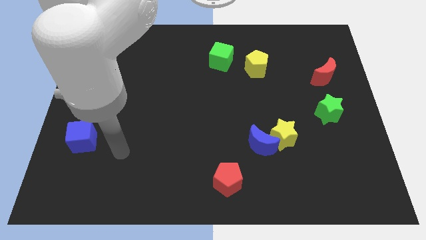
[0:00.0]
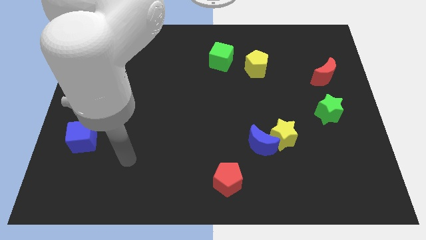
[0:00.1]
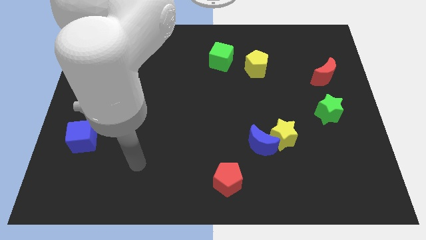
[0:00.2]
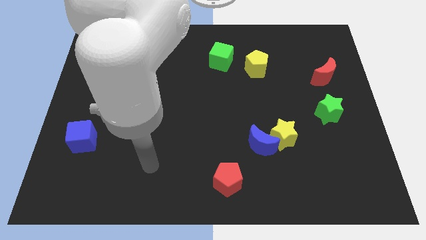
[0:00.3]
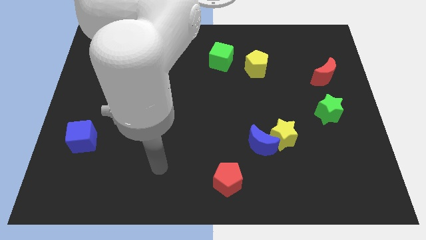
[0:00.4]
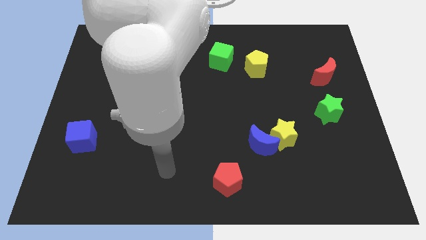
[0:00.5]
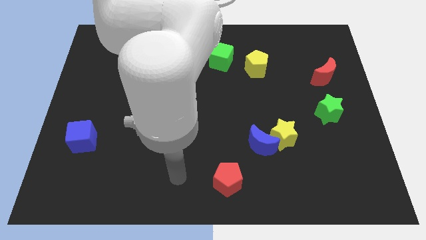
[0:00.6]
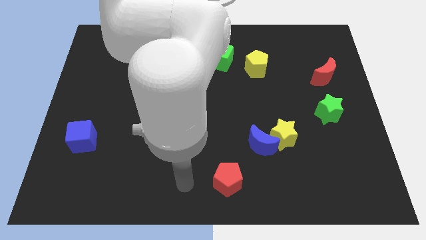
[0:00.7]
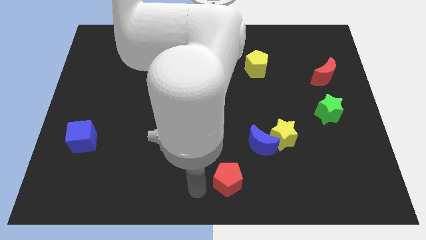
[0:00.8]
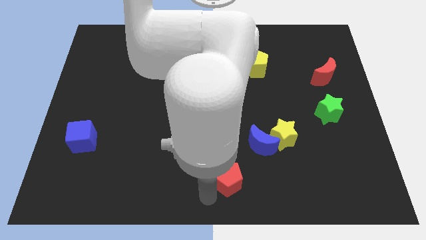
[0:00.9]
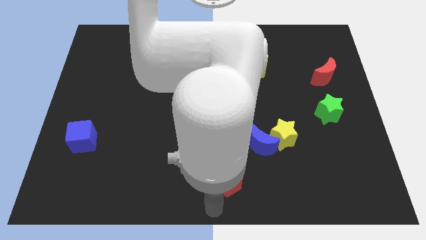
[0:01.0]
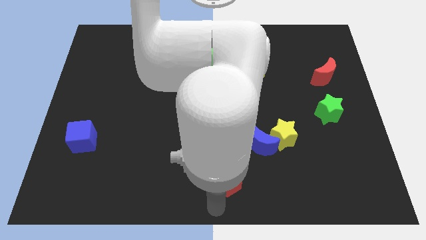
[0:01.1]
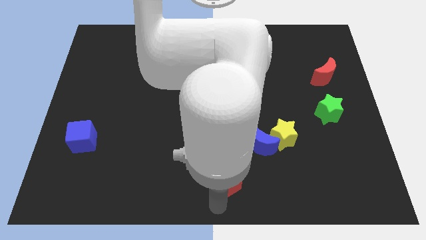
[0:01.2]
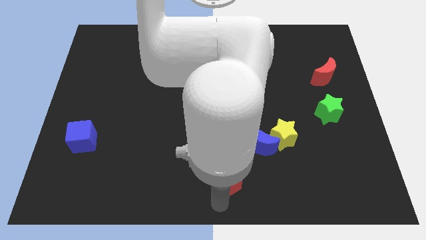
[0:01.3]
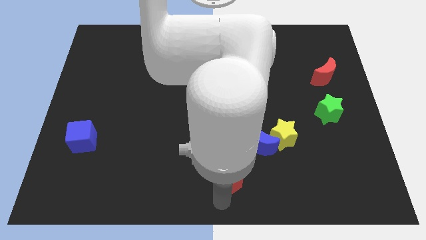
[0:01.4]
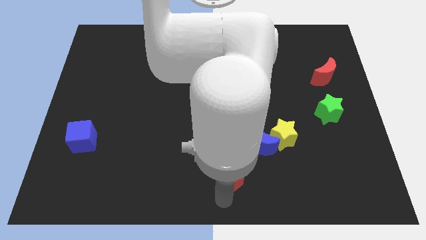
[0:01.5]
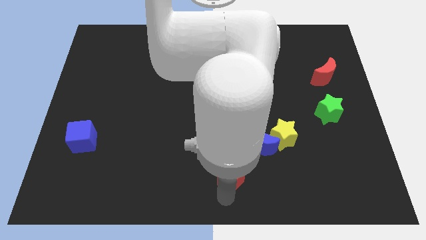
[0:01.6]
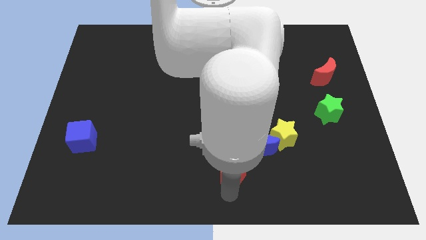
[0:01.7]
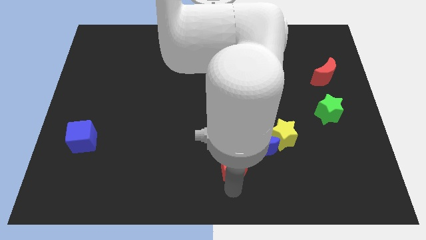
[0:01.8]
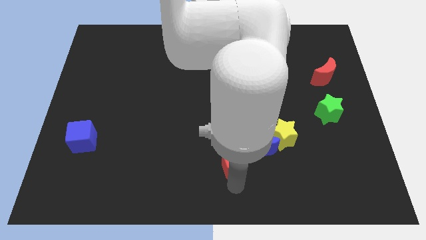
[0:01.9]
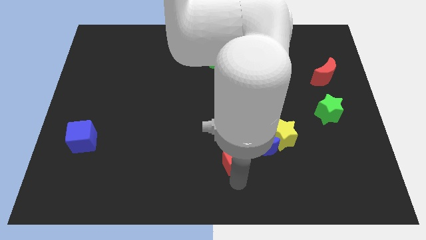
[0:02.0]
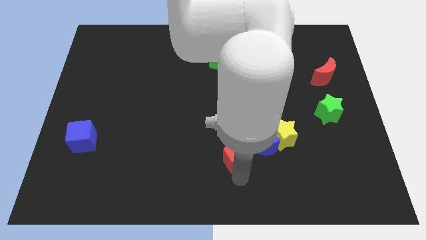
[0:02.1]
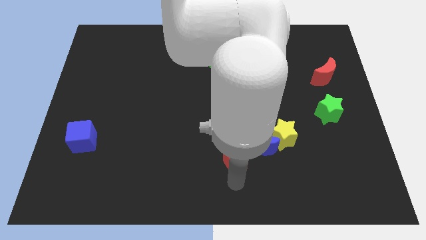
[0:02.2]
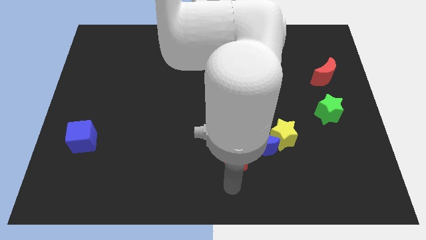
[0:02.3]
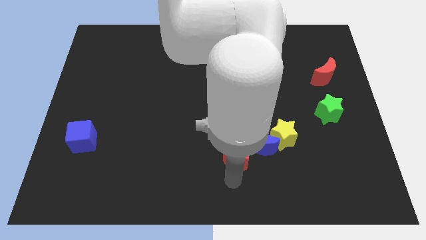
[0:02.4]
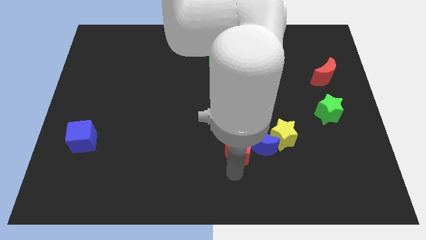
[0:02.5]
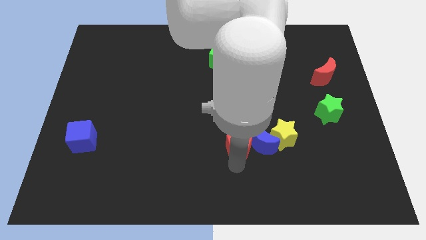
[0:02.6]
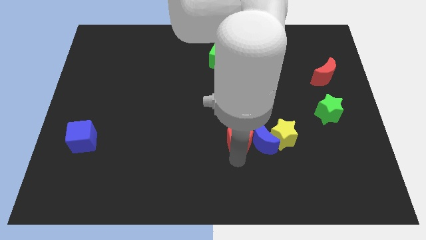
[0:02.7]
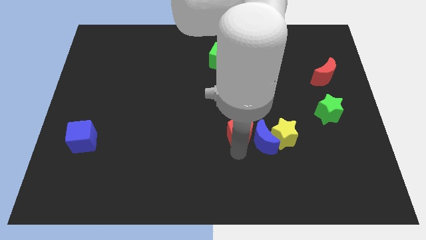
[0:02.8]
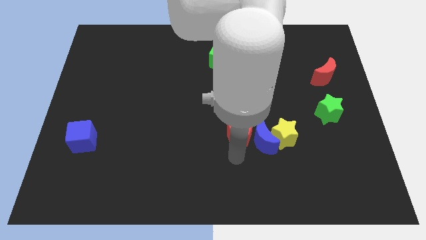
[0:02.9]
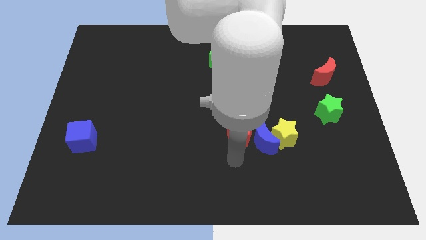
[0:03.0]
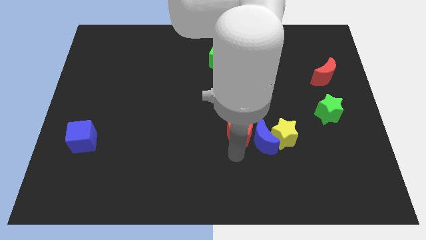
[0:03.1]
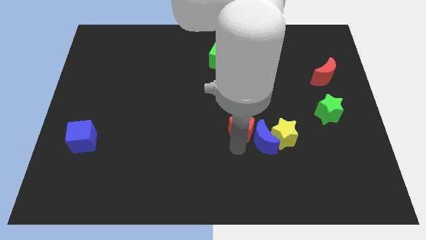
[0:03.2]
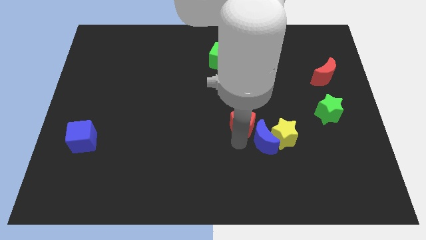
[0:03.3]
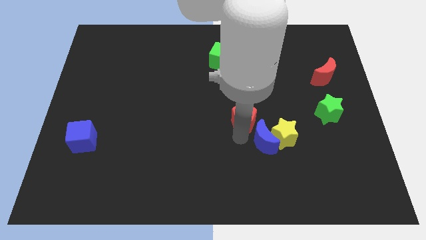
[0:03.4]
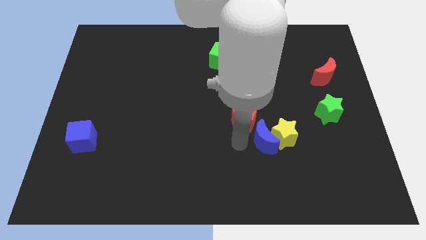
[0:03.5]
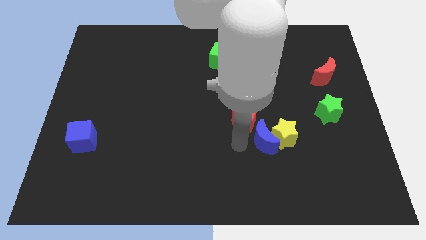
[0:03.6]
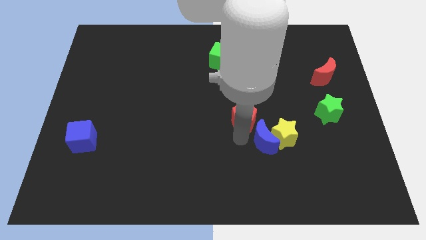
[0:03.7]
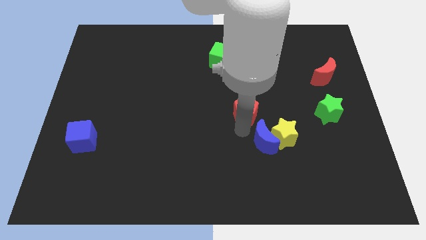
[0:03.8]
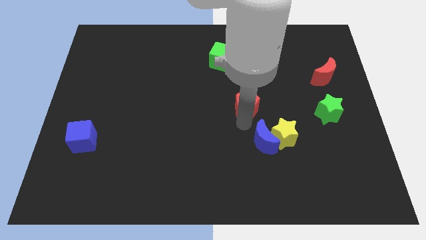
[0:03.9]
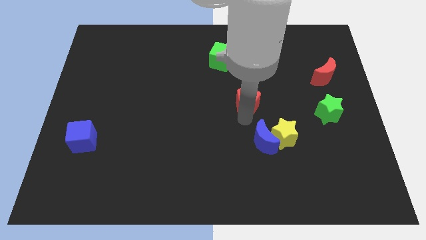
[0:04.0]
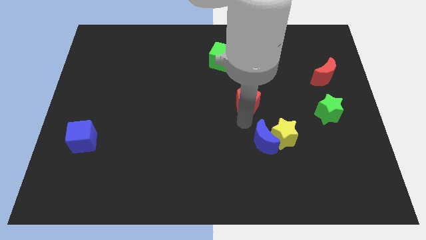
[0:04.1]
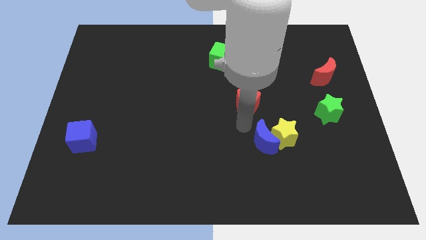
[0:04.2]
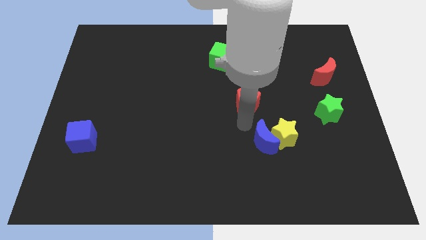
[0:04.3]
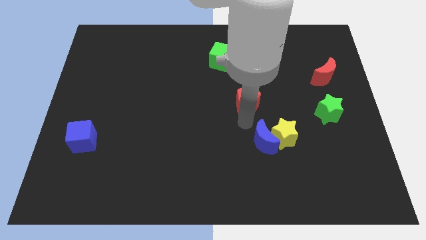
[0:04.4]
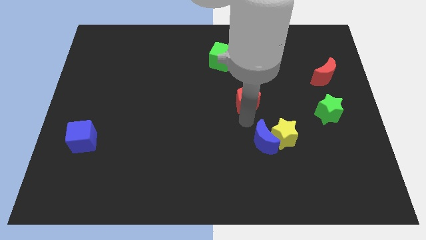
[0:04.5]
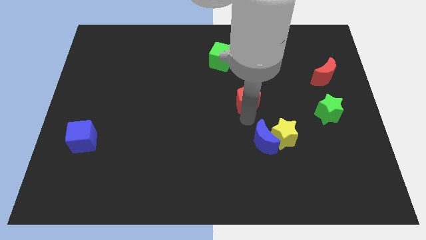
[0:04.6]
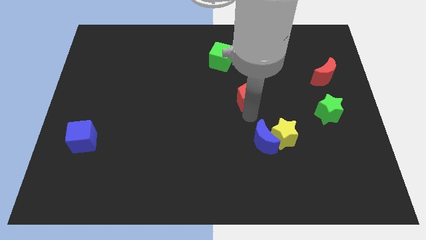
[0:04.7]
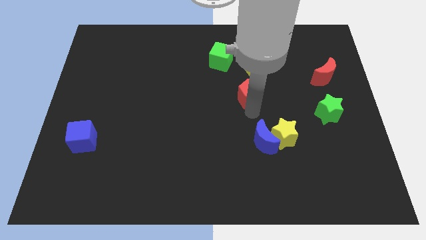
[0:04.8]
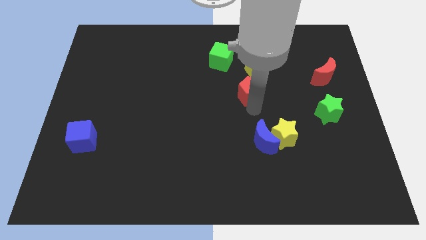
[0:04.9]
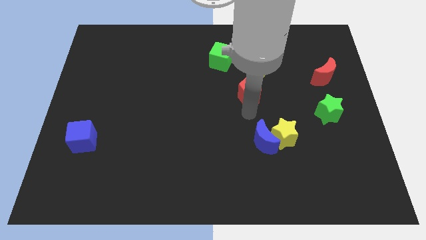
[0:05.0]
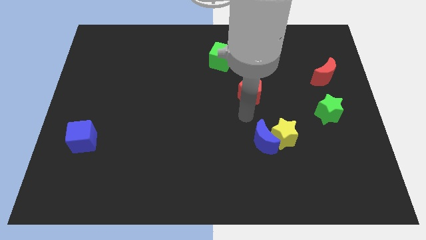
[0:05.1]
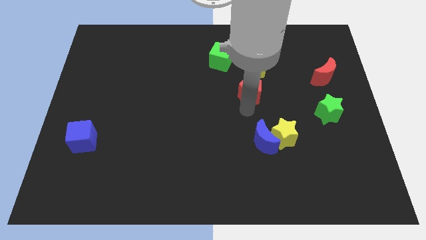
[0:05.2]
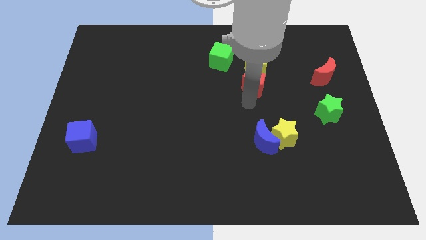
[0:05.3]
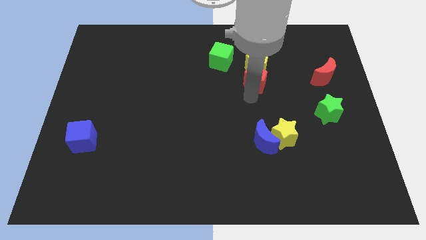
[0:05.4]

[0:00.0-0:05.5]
put the red pentagon next to the yellow pentagon

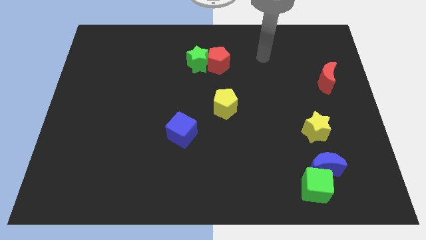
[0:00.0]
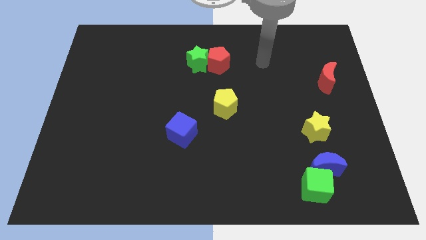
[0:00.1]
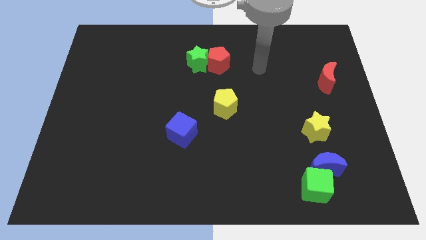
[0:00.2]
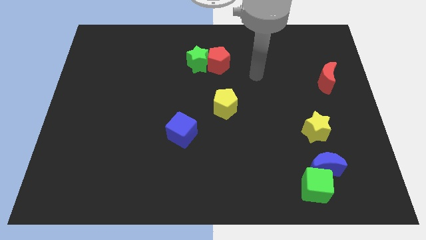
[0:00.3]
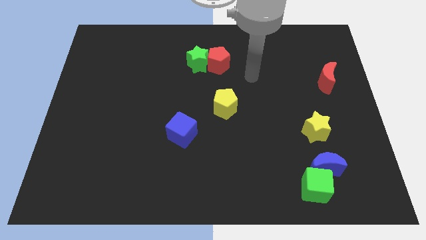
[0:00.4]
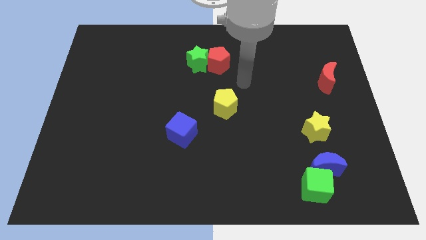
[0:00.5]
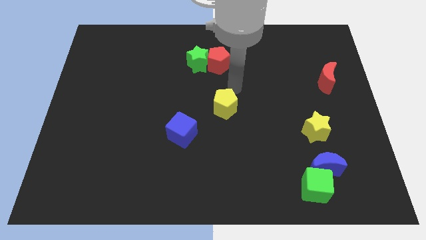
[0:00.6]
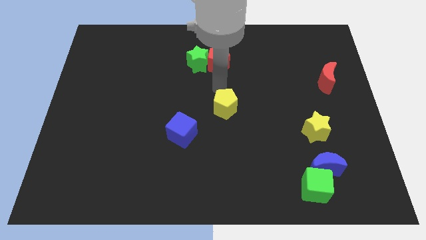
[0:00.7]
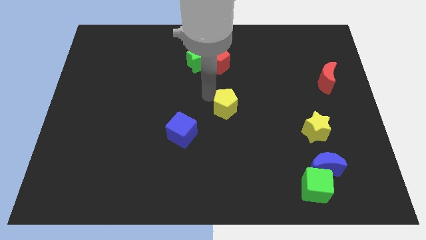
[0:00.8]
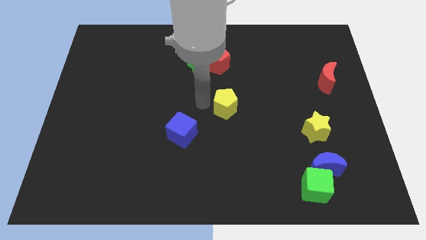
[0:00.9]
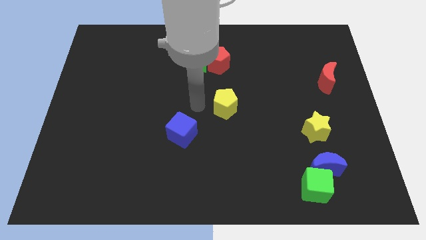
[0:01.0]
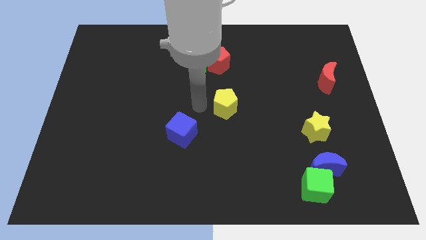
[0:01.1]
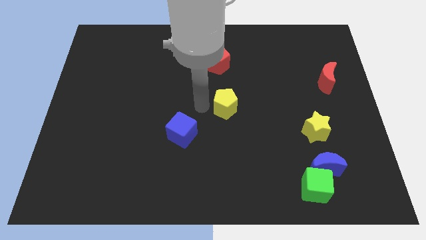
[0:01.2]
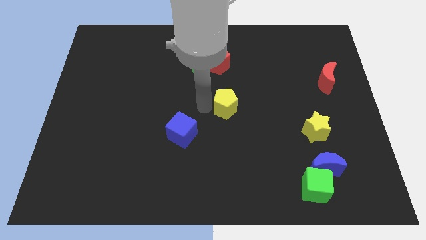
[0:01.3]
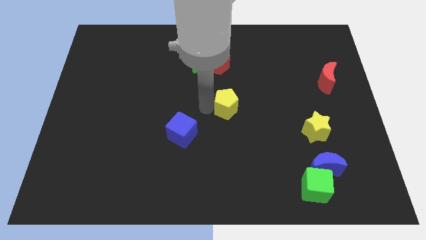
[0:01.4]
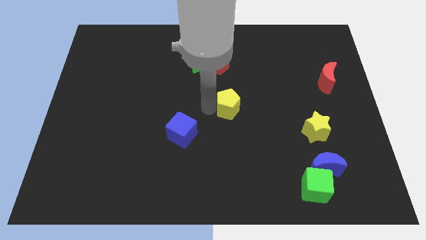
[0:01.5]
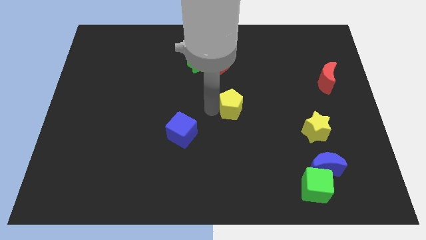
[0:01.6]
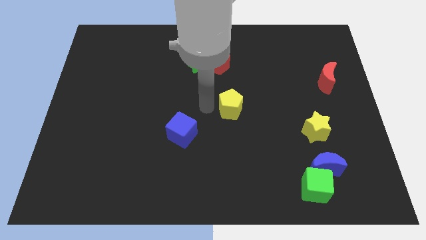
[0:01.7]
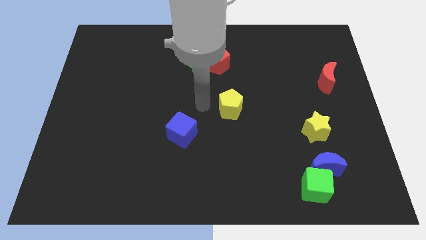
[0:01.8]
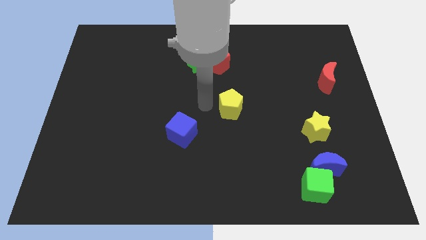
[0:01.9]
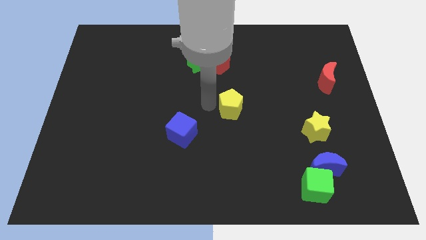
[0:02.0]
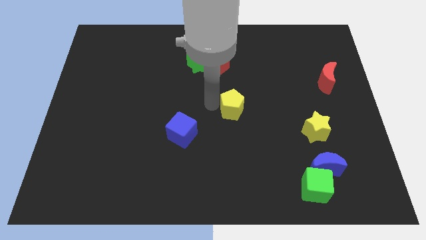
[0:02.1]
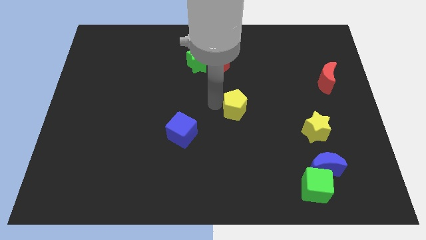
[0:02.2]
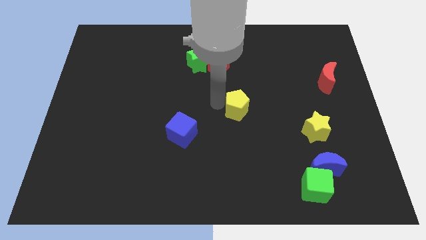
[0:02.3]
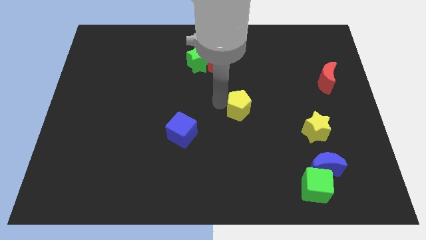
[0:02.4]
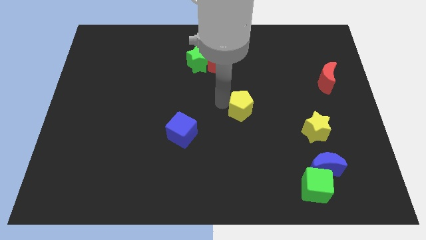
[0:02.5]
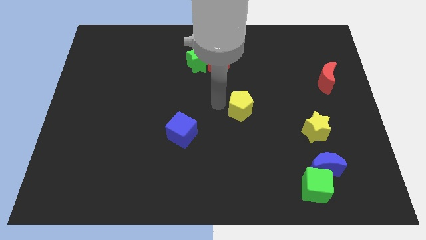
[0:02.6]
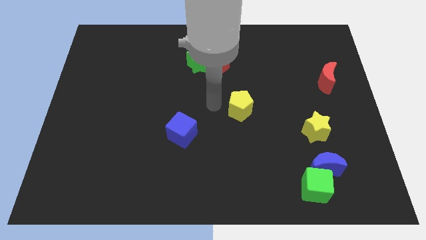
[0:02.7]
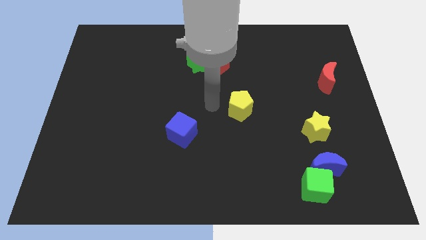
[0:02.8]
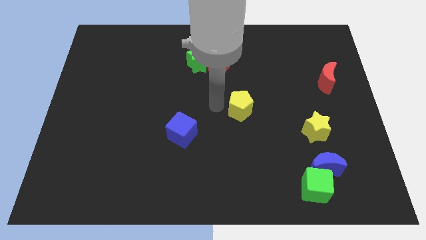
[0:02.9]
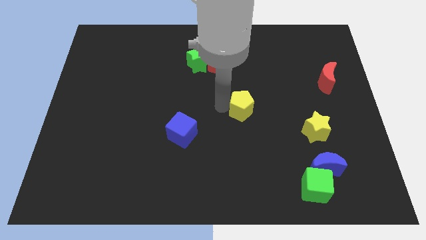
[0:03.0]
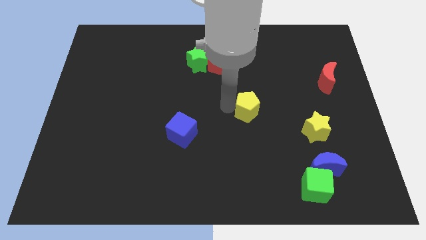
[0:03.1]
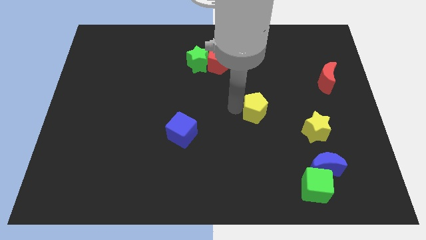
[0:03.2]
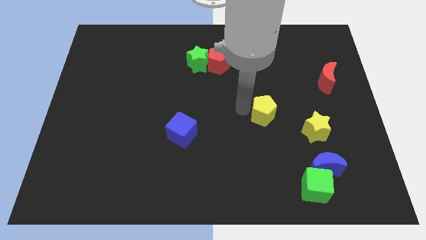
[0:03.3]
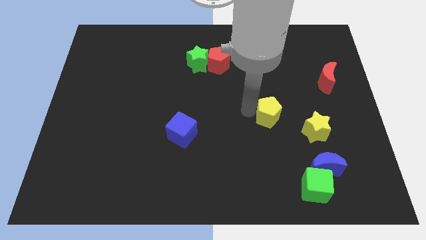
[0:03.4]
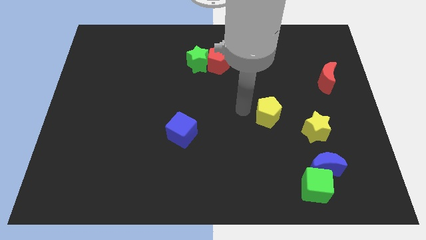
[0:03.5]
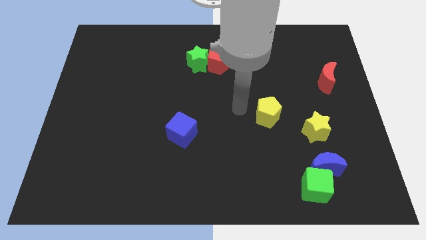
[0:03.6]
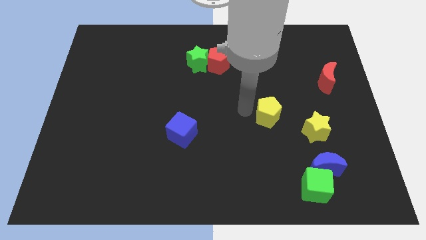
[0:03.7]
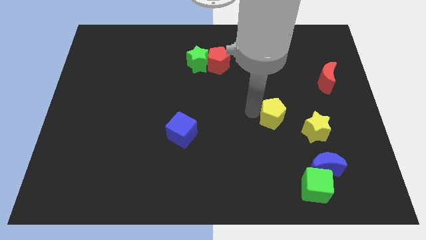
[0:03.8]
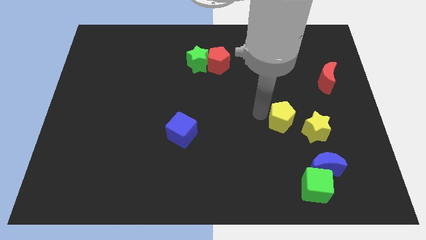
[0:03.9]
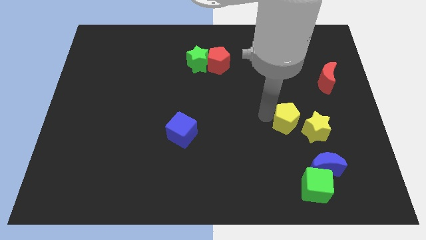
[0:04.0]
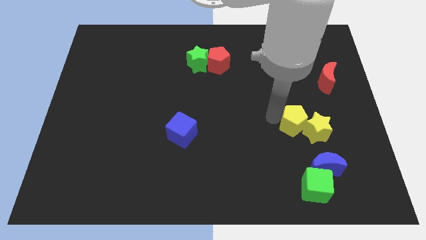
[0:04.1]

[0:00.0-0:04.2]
put the yellow pentagon to the yellow star
